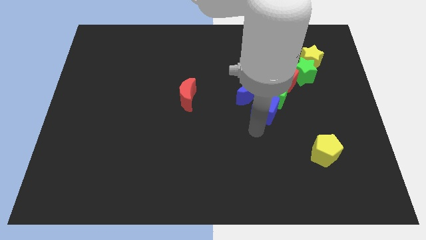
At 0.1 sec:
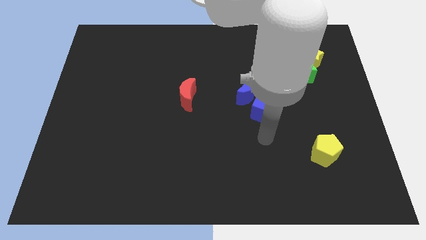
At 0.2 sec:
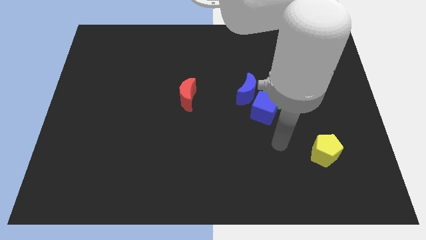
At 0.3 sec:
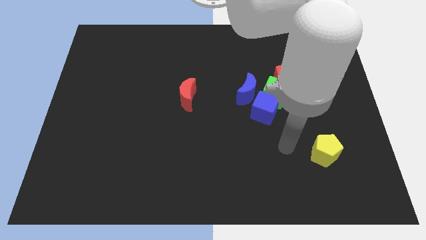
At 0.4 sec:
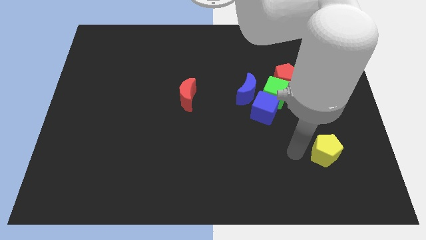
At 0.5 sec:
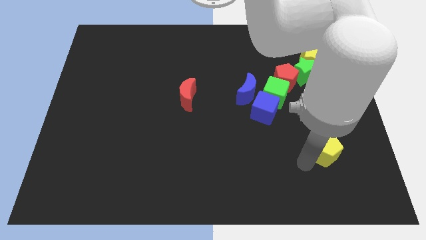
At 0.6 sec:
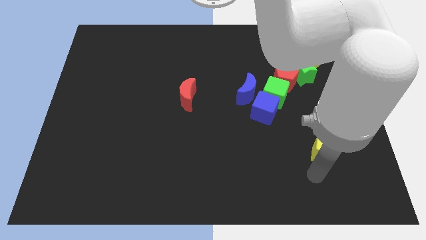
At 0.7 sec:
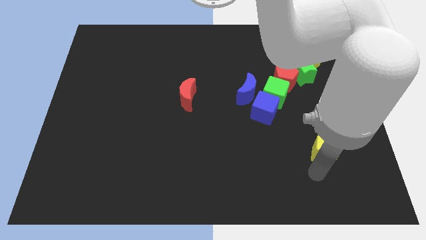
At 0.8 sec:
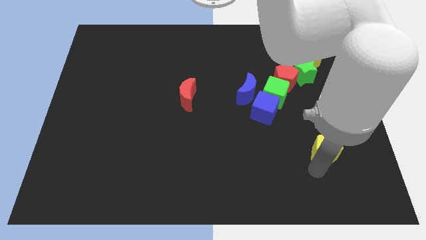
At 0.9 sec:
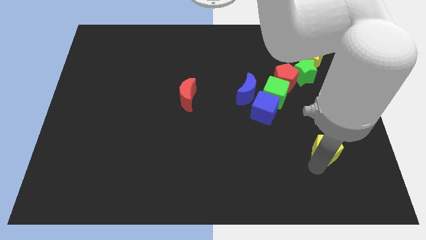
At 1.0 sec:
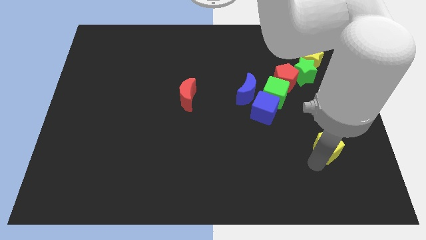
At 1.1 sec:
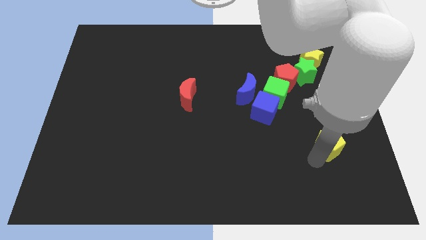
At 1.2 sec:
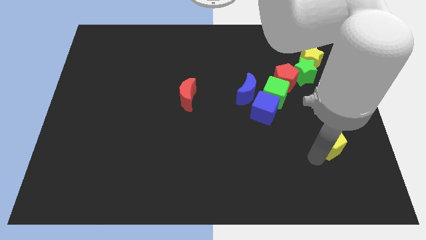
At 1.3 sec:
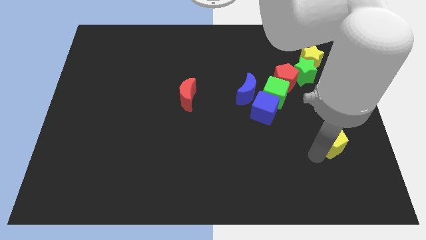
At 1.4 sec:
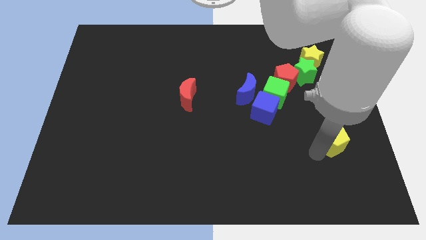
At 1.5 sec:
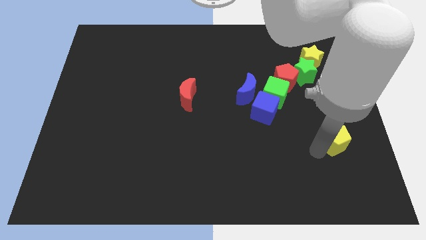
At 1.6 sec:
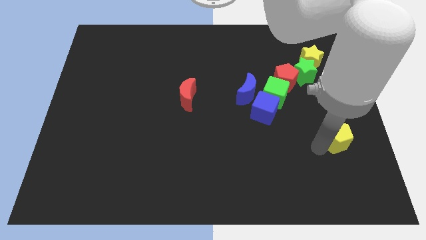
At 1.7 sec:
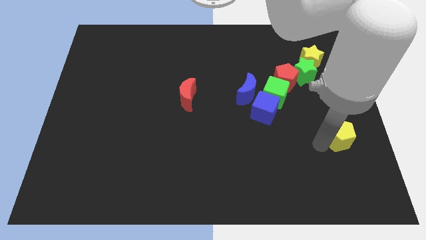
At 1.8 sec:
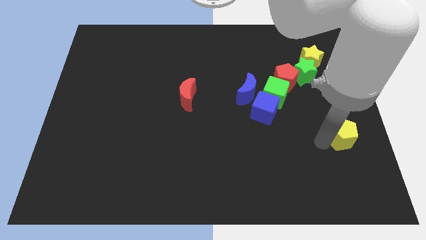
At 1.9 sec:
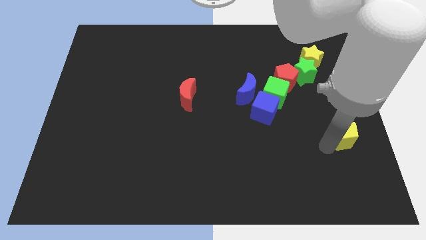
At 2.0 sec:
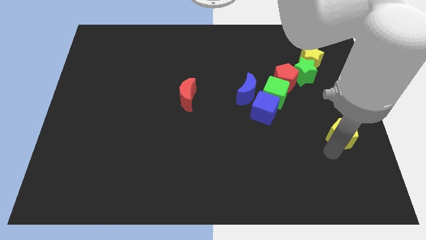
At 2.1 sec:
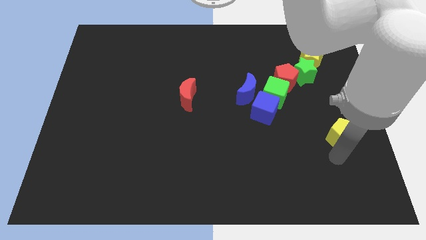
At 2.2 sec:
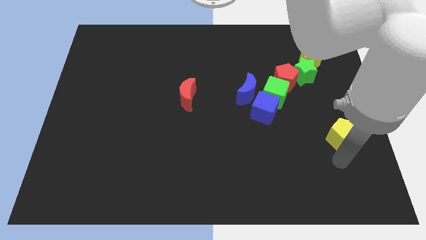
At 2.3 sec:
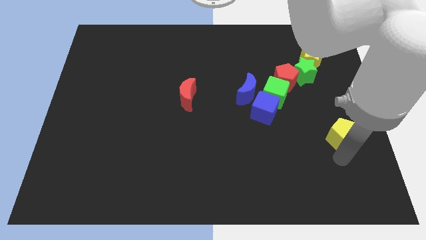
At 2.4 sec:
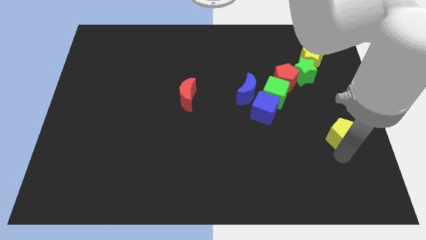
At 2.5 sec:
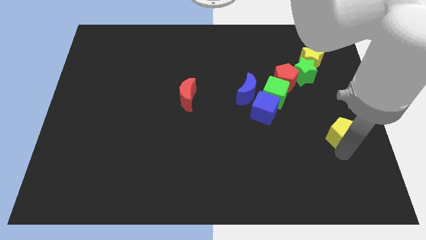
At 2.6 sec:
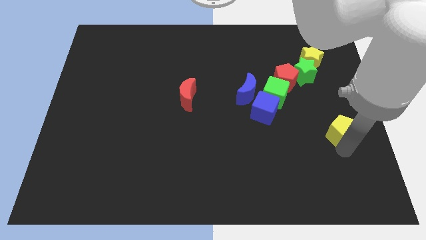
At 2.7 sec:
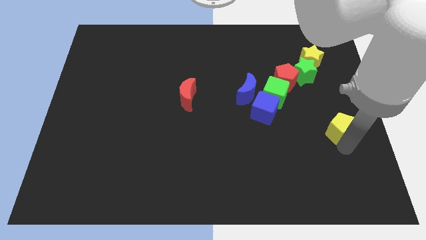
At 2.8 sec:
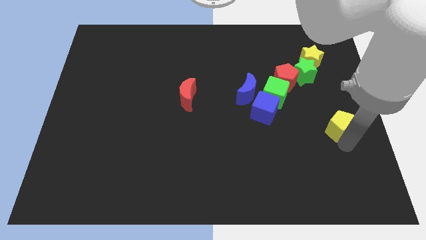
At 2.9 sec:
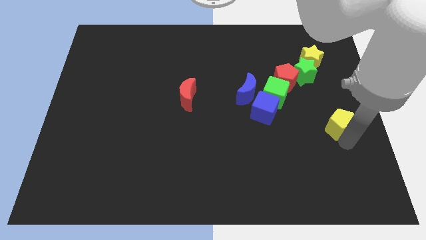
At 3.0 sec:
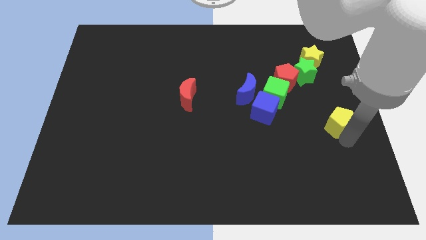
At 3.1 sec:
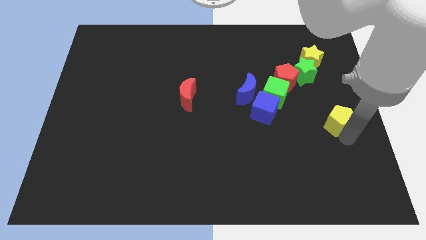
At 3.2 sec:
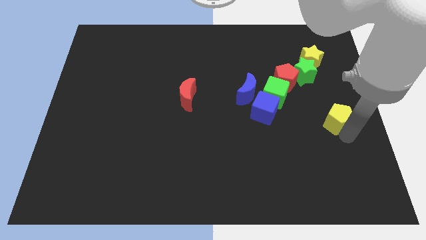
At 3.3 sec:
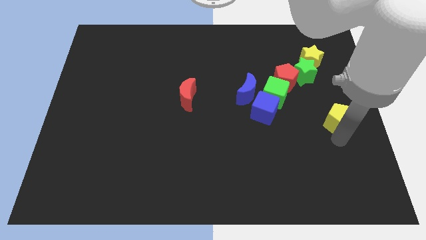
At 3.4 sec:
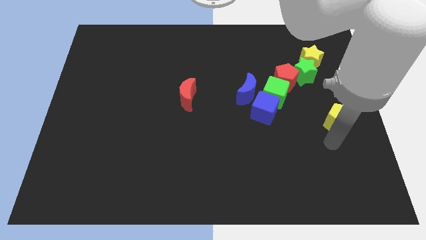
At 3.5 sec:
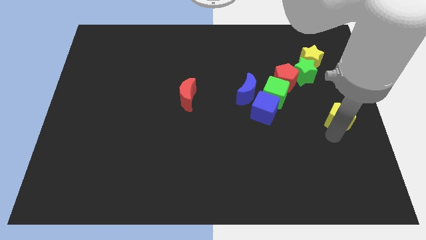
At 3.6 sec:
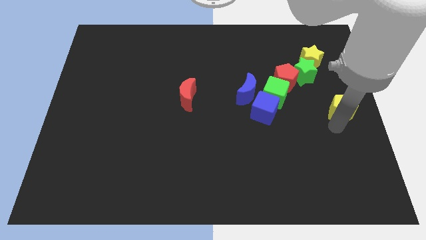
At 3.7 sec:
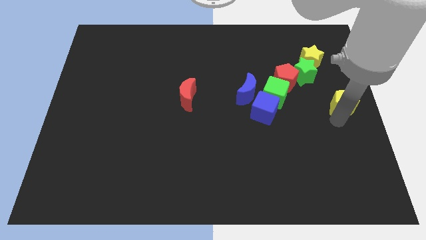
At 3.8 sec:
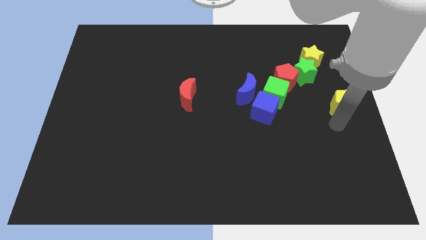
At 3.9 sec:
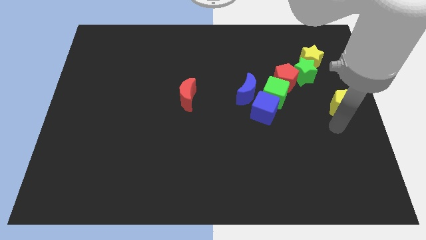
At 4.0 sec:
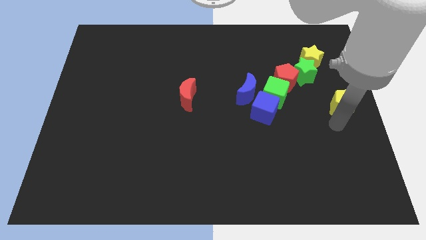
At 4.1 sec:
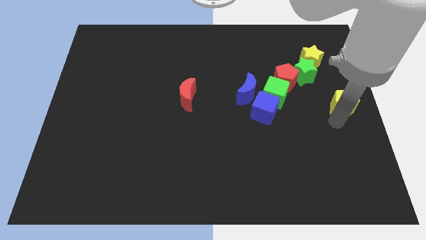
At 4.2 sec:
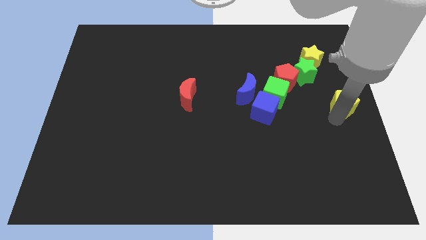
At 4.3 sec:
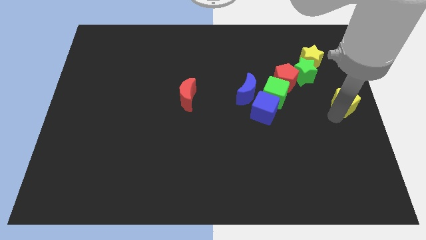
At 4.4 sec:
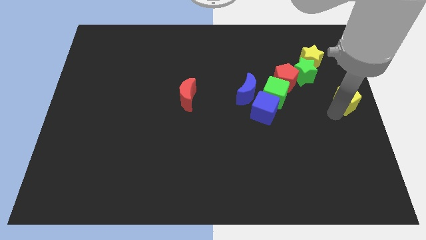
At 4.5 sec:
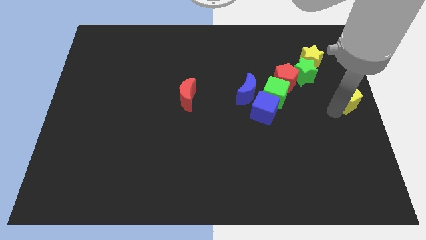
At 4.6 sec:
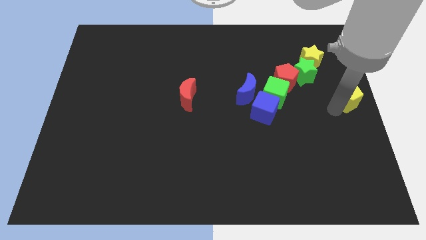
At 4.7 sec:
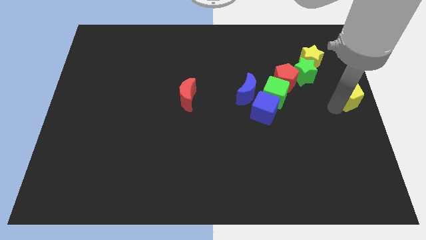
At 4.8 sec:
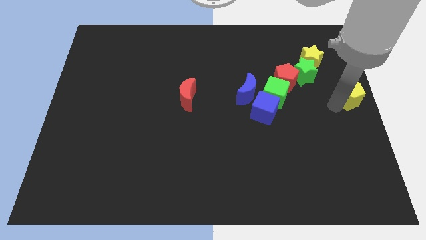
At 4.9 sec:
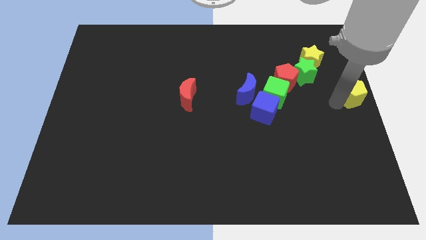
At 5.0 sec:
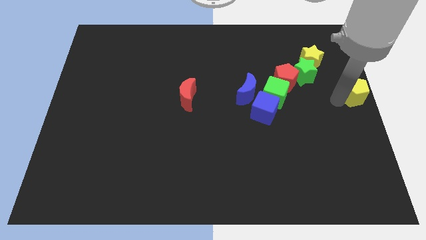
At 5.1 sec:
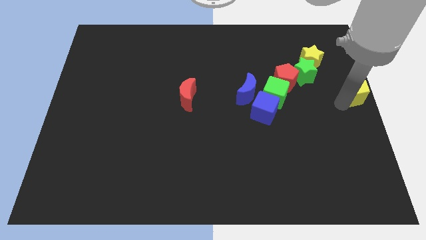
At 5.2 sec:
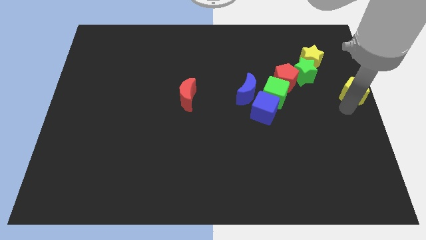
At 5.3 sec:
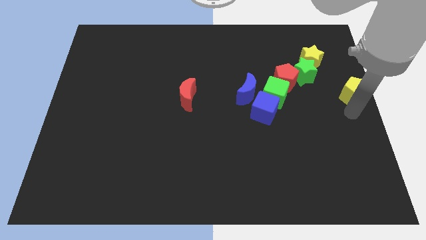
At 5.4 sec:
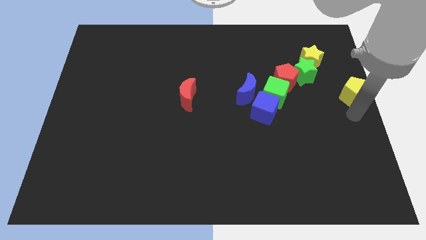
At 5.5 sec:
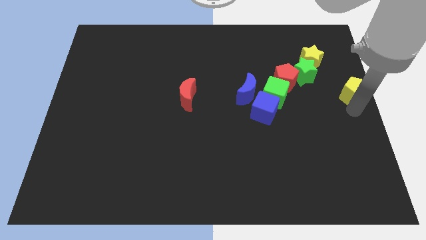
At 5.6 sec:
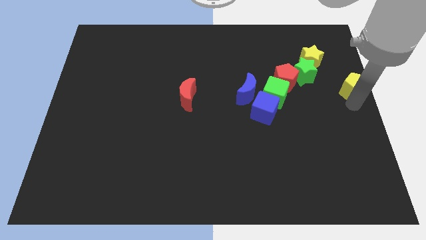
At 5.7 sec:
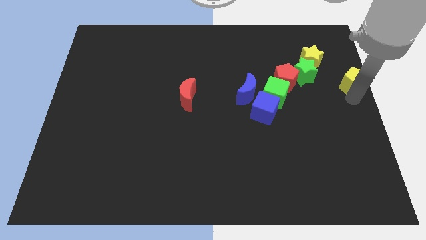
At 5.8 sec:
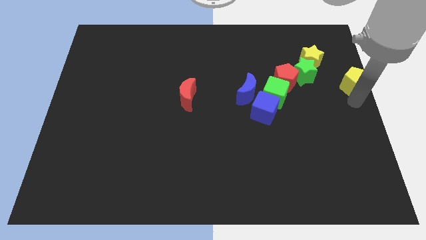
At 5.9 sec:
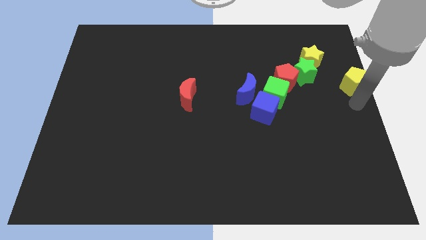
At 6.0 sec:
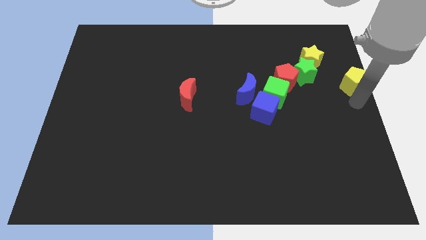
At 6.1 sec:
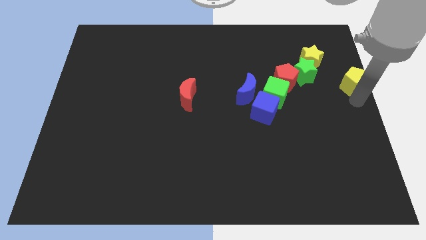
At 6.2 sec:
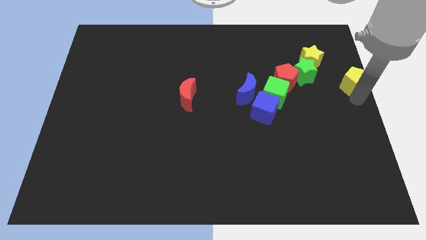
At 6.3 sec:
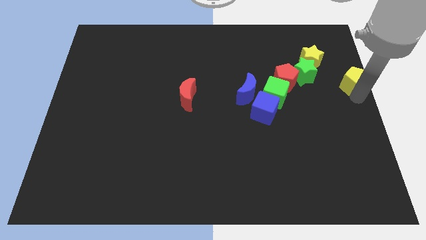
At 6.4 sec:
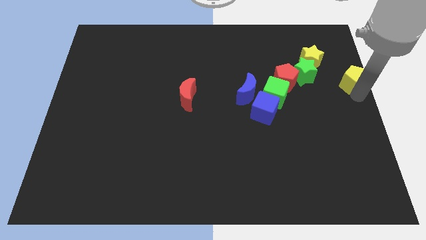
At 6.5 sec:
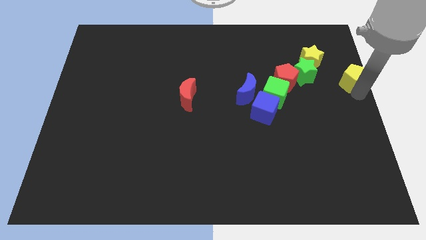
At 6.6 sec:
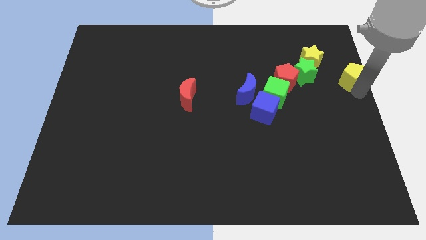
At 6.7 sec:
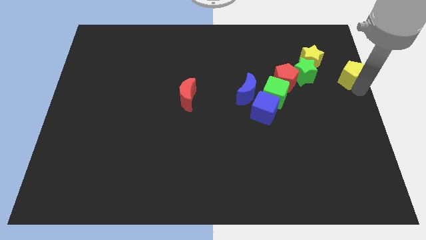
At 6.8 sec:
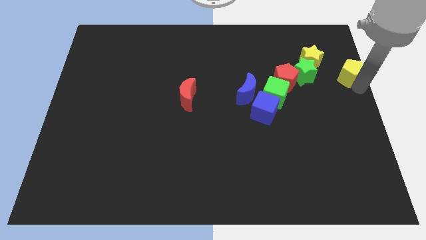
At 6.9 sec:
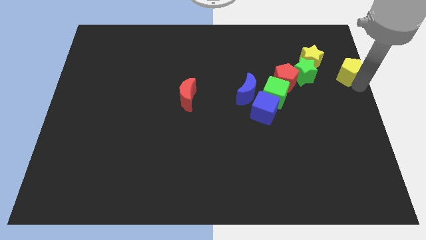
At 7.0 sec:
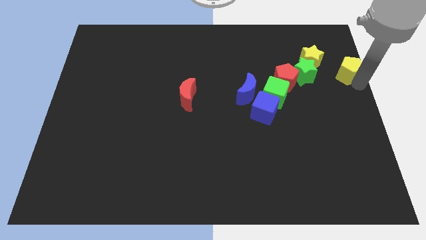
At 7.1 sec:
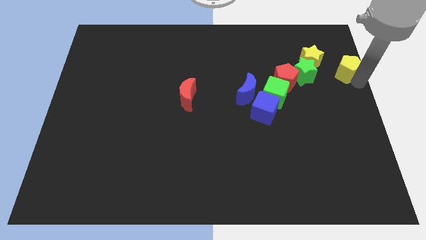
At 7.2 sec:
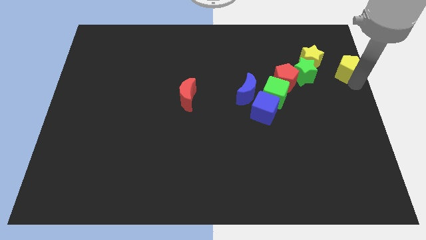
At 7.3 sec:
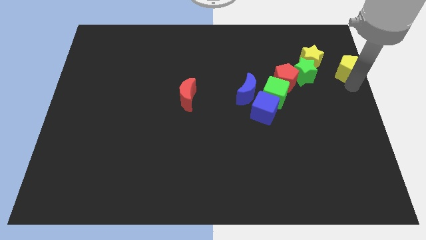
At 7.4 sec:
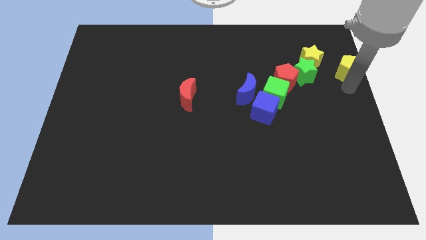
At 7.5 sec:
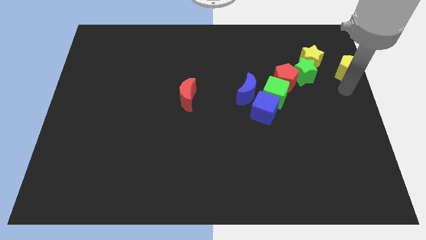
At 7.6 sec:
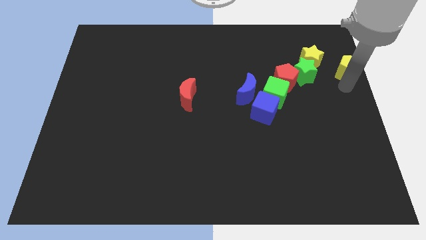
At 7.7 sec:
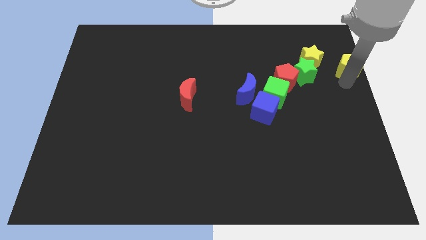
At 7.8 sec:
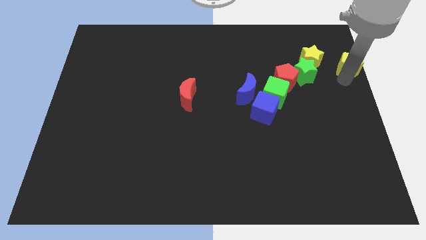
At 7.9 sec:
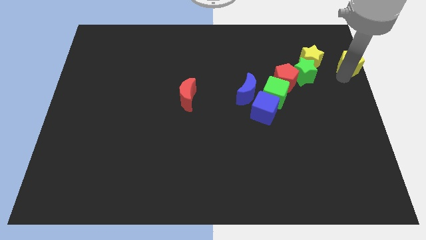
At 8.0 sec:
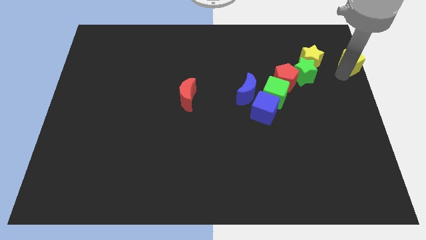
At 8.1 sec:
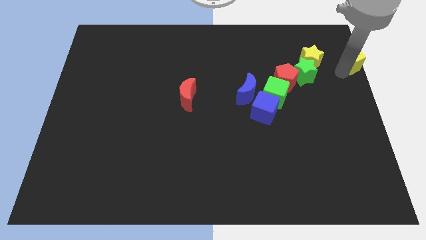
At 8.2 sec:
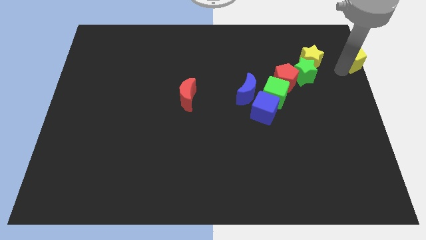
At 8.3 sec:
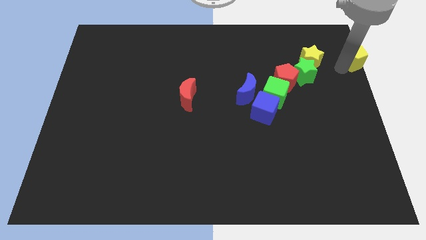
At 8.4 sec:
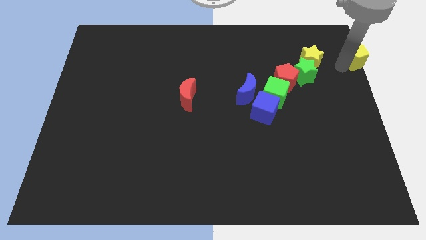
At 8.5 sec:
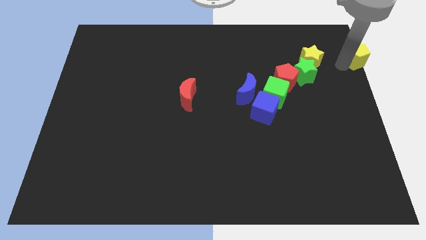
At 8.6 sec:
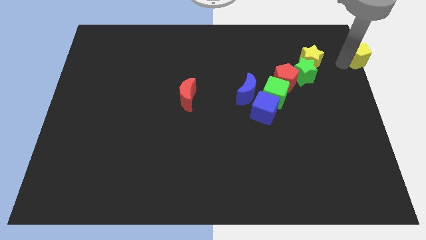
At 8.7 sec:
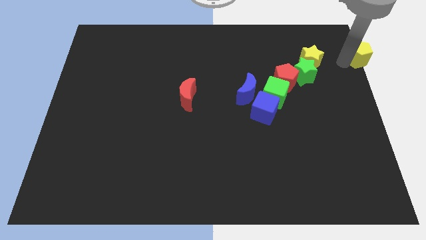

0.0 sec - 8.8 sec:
move the yellow pentagon to the top right of the board
